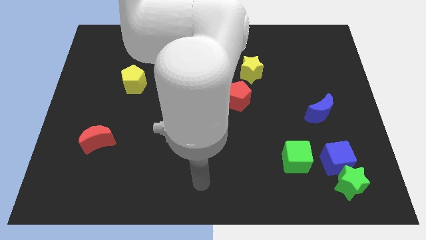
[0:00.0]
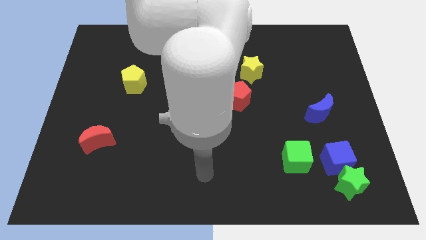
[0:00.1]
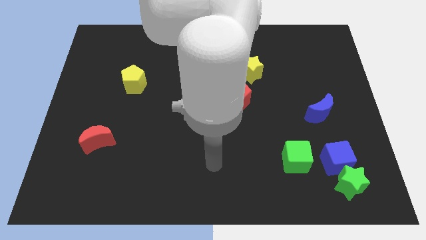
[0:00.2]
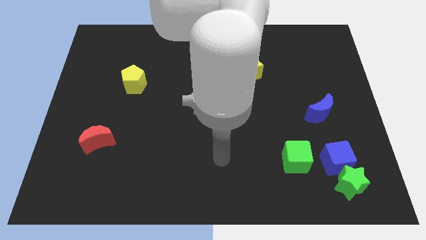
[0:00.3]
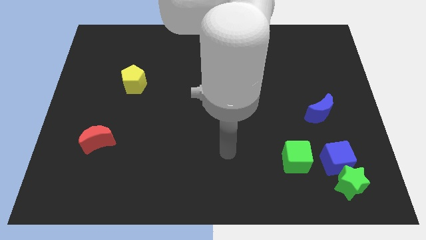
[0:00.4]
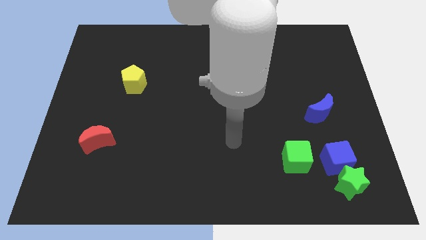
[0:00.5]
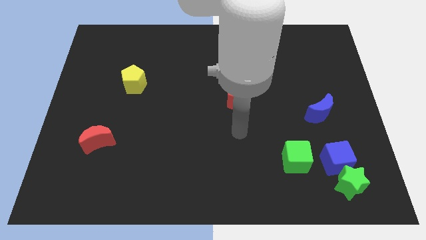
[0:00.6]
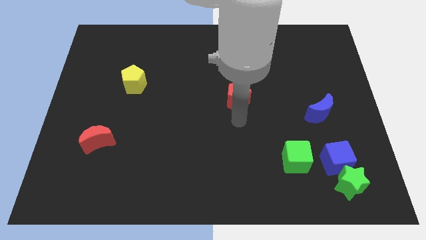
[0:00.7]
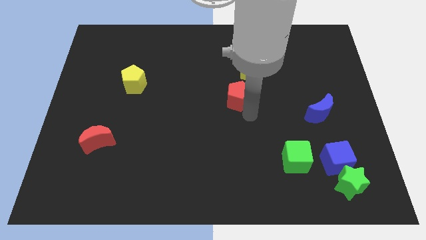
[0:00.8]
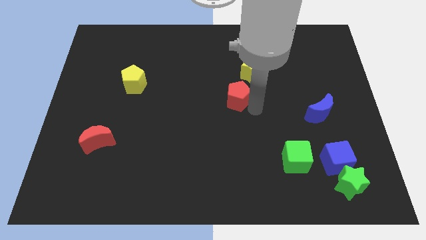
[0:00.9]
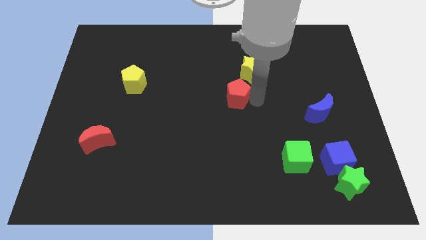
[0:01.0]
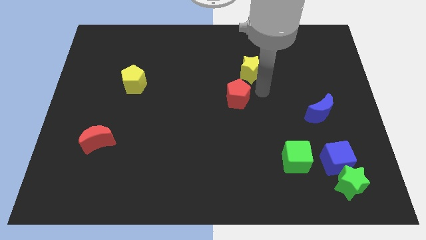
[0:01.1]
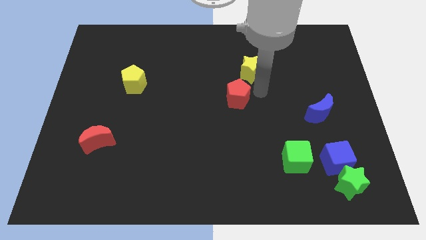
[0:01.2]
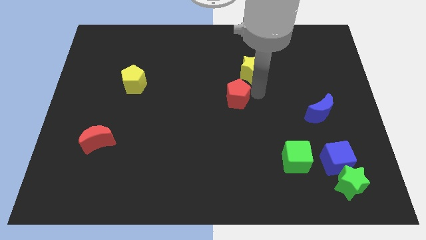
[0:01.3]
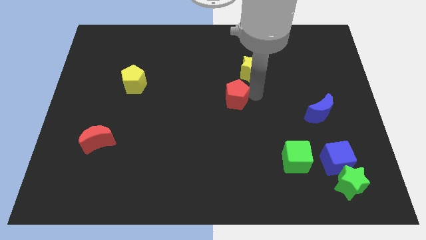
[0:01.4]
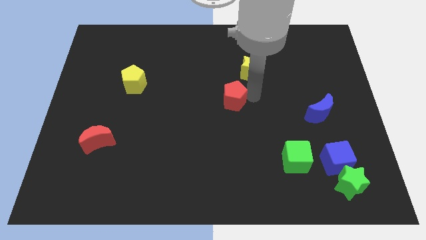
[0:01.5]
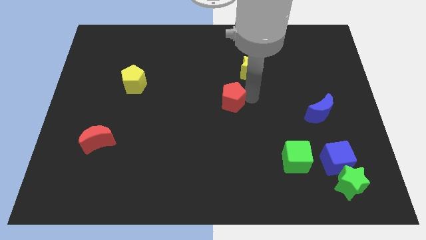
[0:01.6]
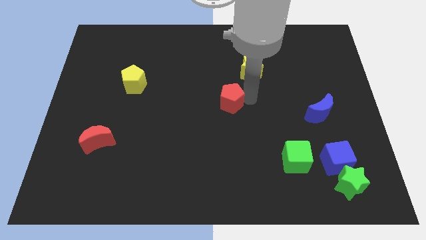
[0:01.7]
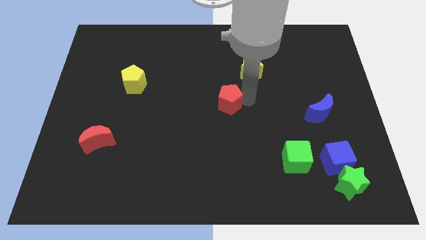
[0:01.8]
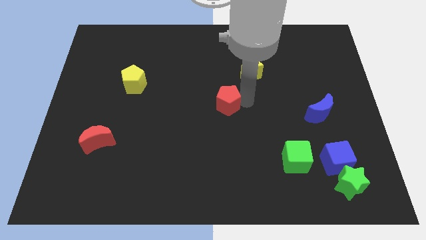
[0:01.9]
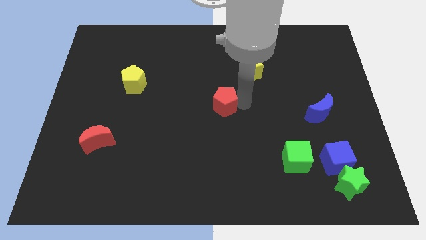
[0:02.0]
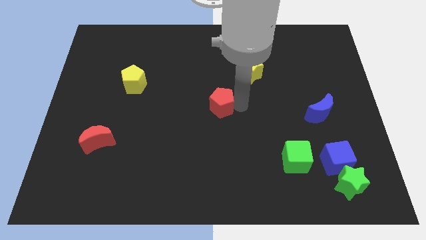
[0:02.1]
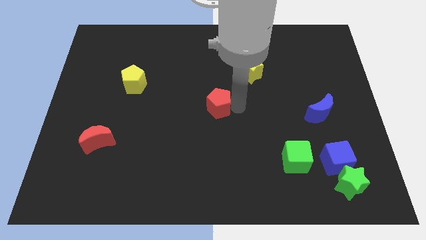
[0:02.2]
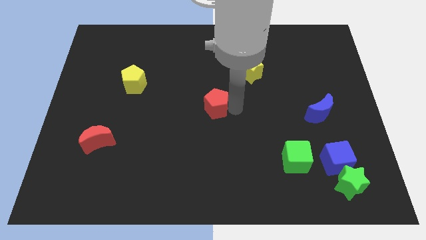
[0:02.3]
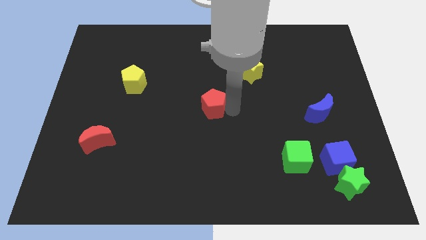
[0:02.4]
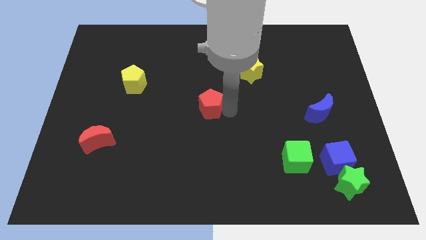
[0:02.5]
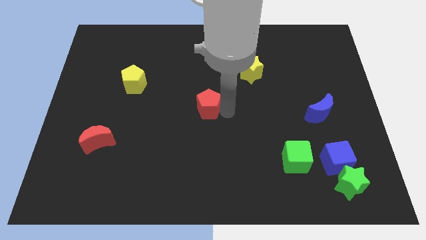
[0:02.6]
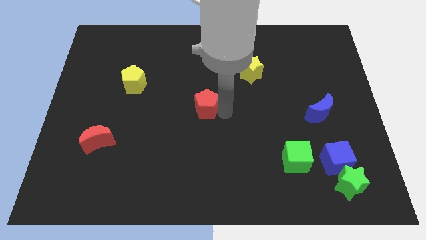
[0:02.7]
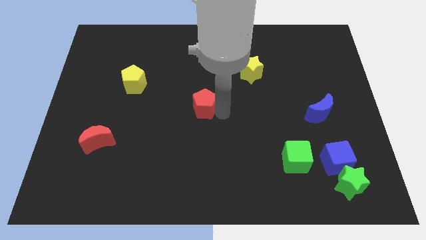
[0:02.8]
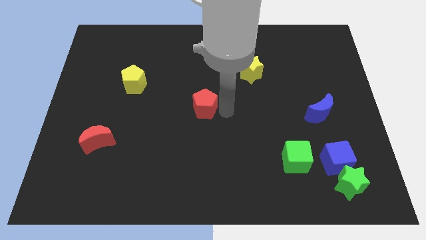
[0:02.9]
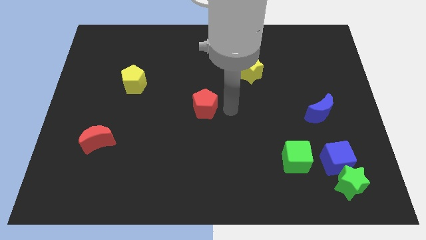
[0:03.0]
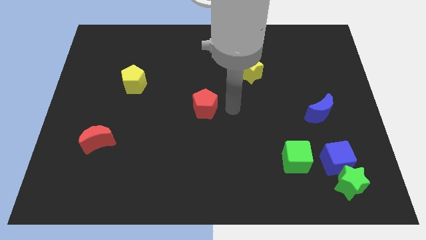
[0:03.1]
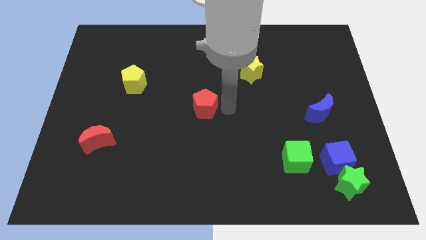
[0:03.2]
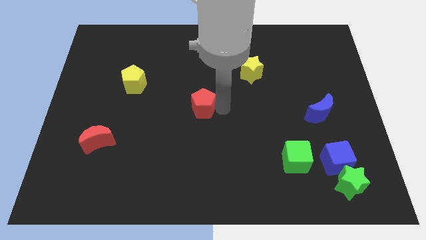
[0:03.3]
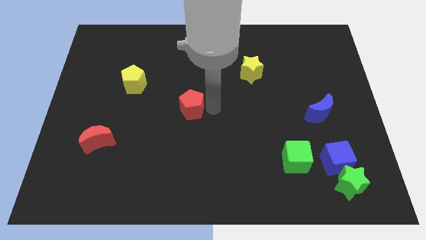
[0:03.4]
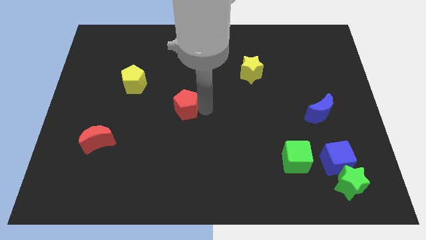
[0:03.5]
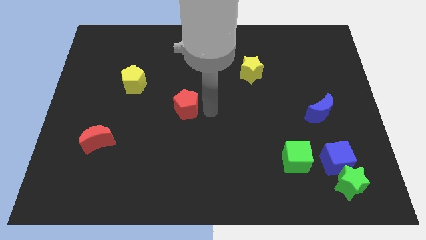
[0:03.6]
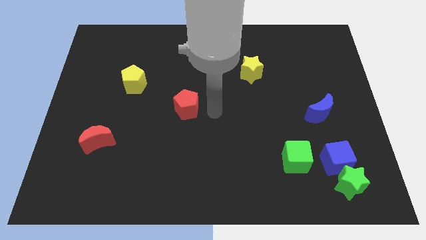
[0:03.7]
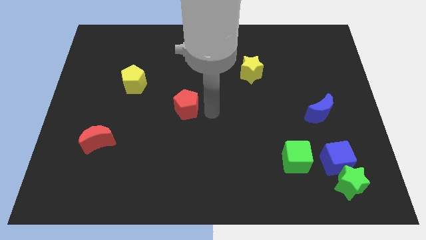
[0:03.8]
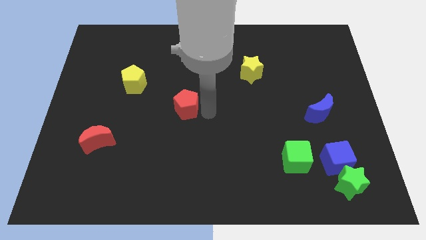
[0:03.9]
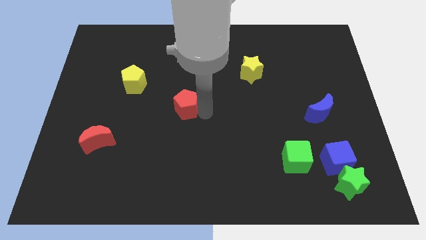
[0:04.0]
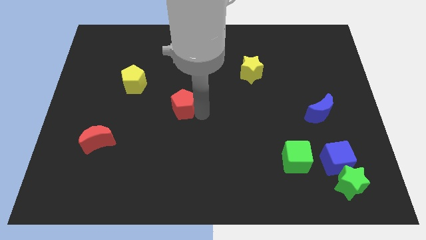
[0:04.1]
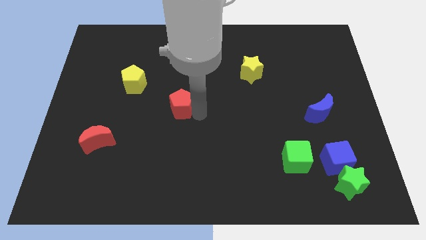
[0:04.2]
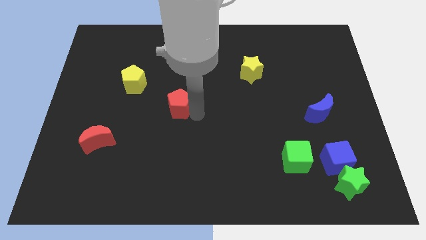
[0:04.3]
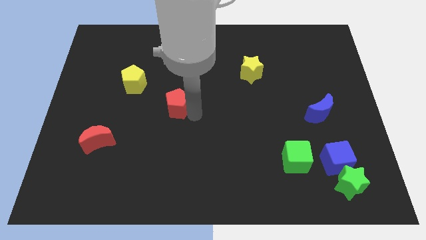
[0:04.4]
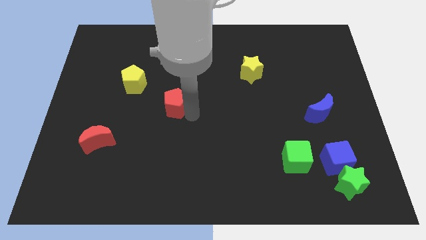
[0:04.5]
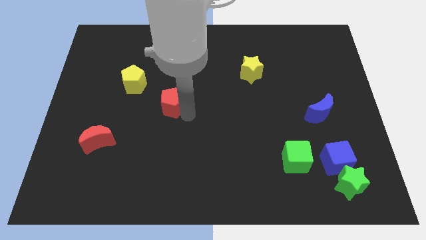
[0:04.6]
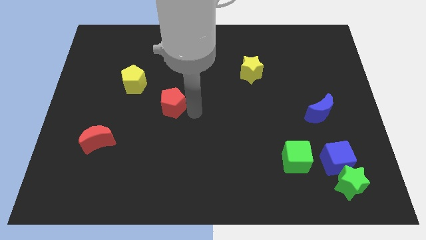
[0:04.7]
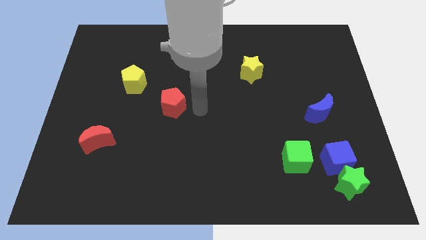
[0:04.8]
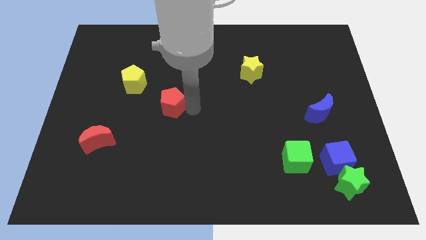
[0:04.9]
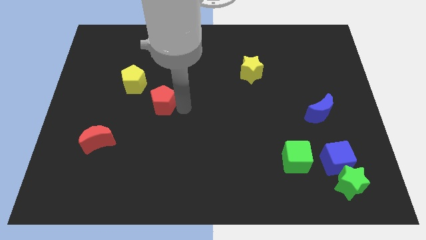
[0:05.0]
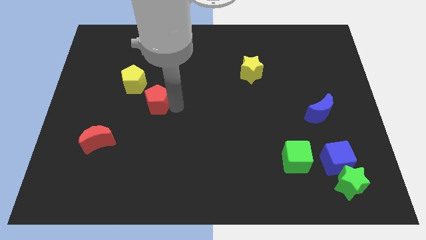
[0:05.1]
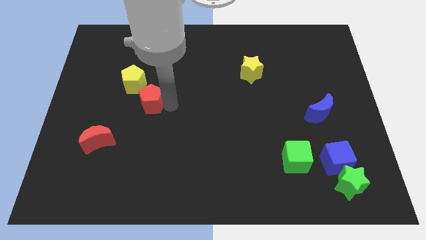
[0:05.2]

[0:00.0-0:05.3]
push the red pentagon to the left

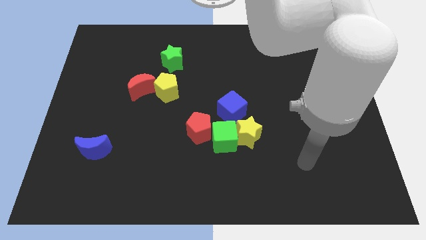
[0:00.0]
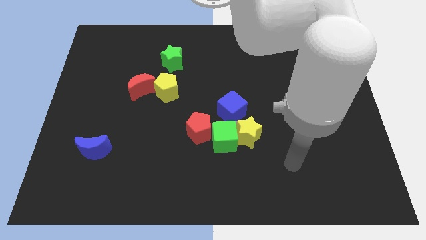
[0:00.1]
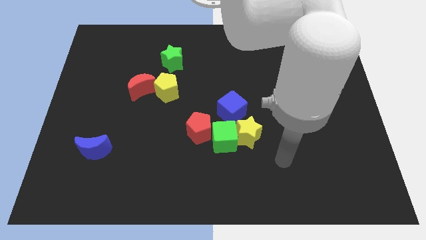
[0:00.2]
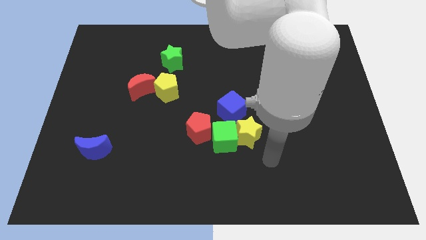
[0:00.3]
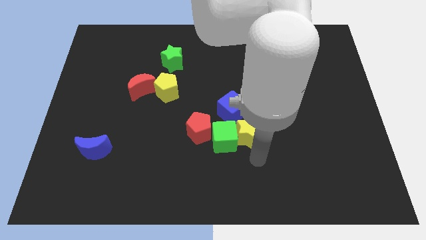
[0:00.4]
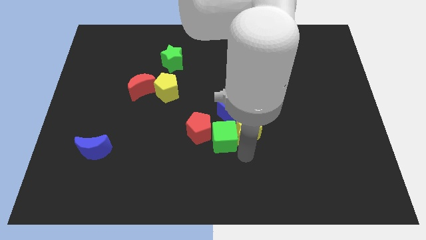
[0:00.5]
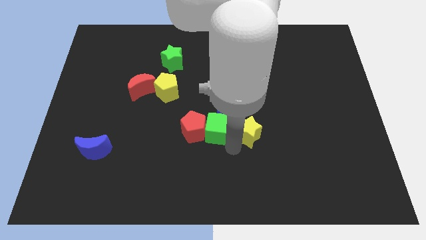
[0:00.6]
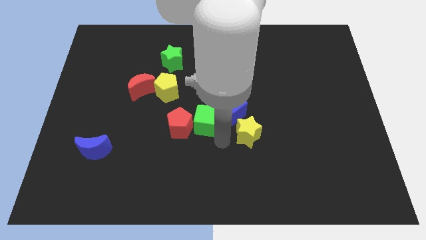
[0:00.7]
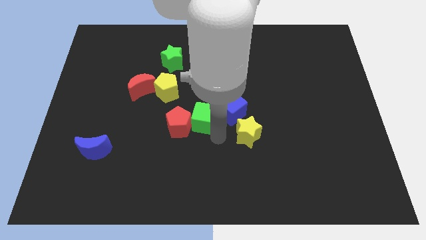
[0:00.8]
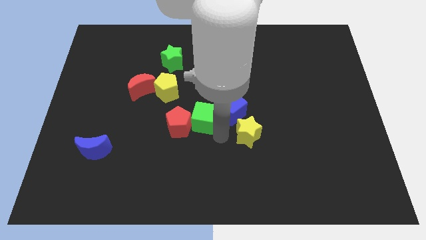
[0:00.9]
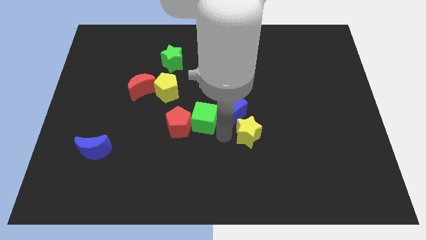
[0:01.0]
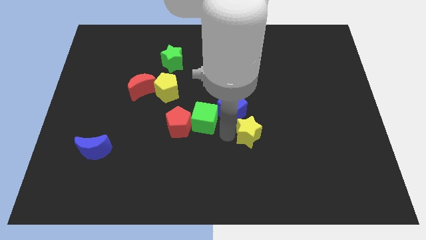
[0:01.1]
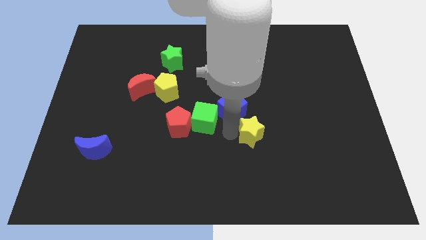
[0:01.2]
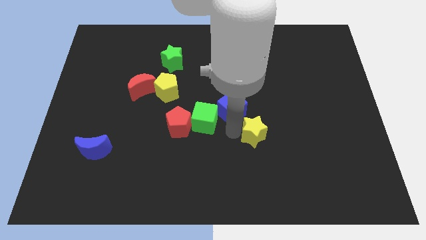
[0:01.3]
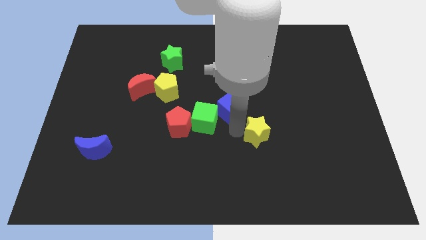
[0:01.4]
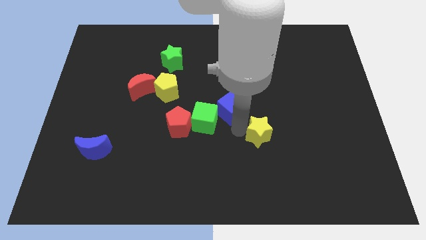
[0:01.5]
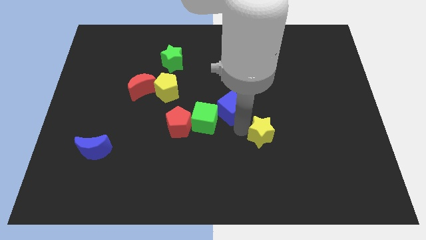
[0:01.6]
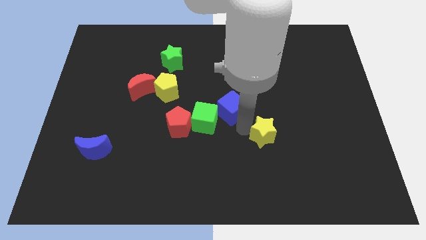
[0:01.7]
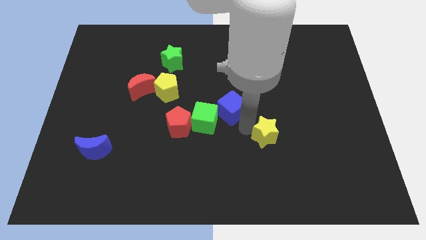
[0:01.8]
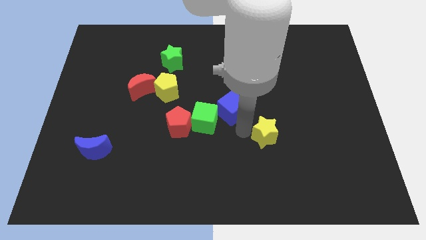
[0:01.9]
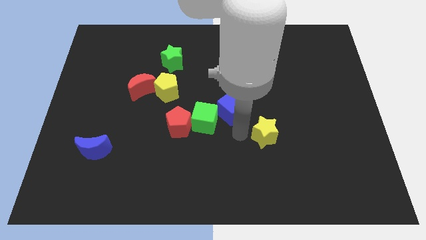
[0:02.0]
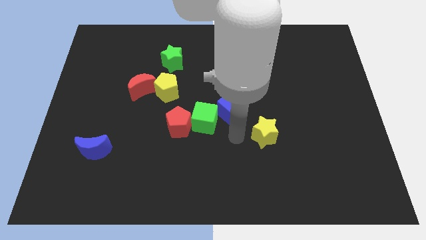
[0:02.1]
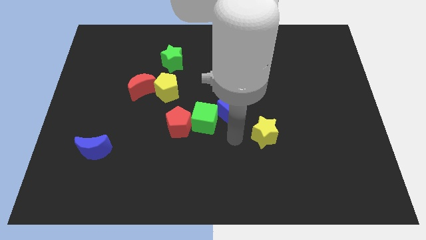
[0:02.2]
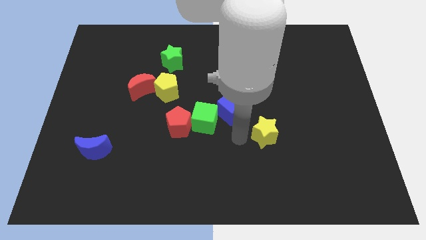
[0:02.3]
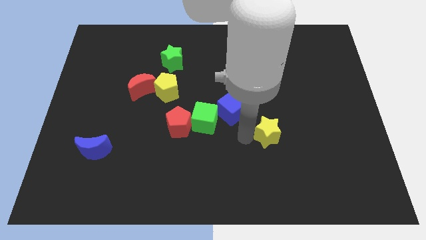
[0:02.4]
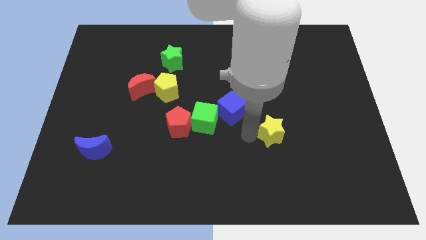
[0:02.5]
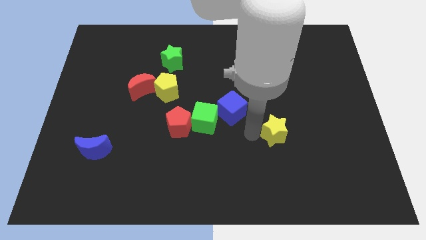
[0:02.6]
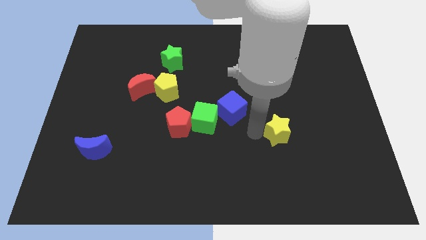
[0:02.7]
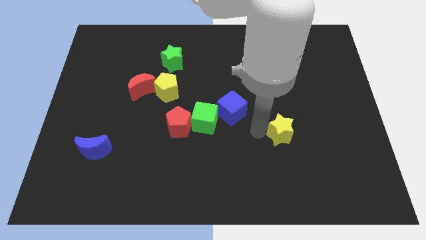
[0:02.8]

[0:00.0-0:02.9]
slightly slide the yellow star to the right

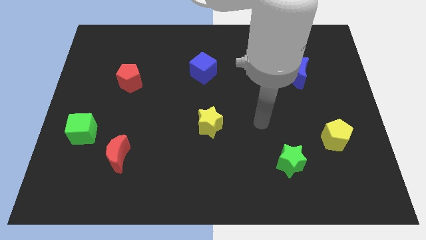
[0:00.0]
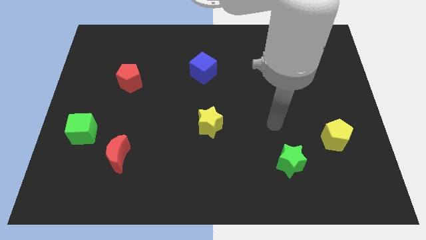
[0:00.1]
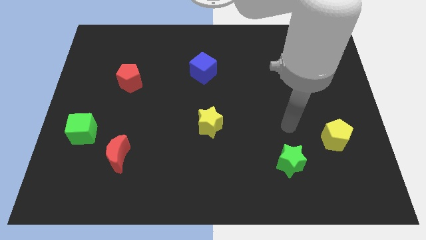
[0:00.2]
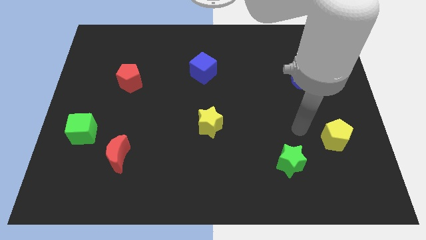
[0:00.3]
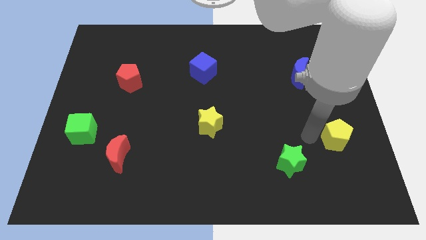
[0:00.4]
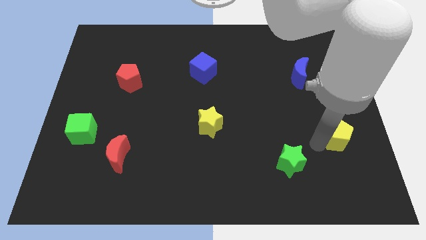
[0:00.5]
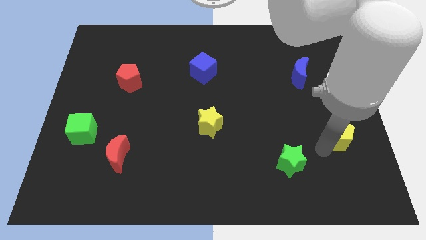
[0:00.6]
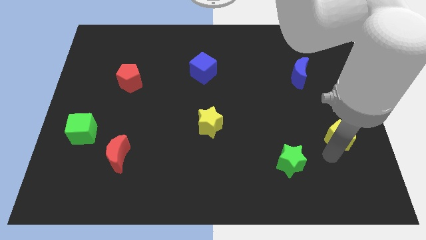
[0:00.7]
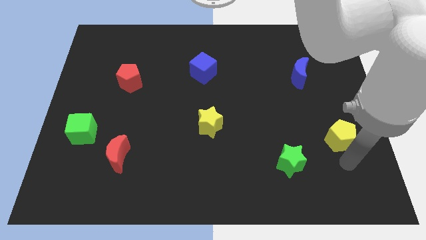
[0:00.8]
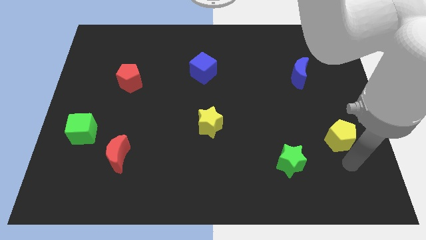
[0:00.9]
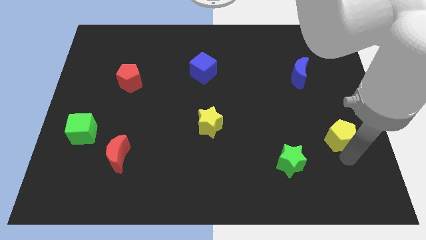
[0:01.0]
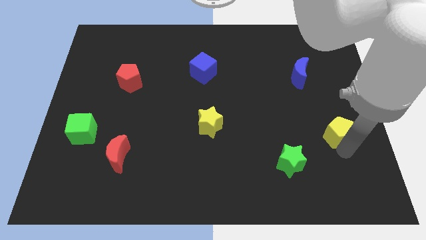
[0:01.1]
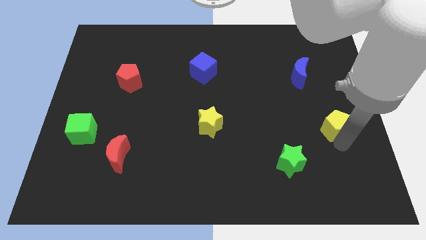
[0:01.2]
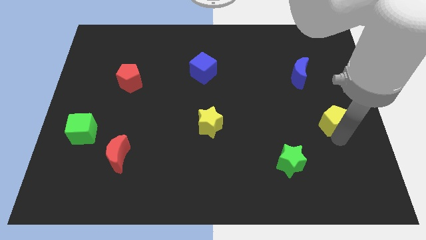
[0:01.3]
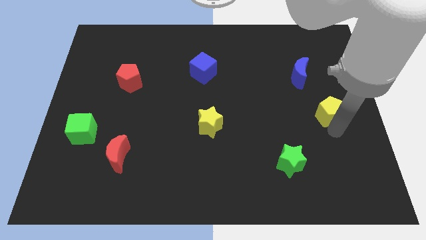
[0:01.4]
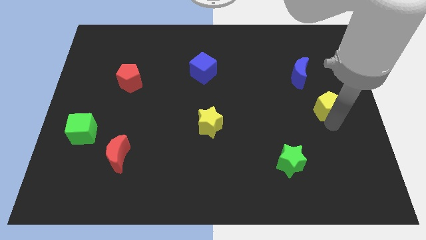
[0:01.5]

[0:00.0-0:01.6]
slightly push the yellow pentagon upwards
